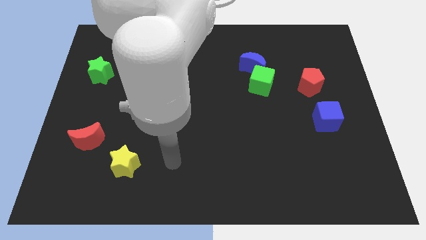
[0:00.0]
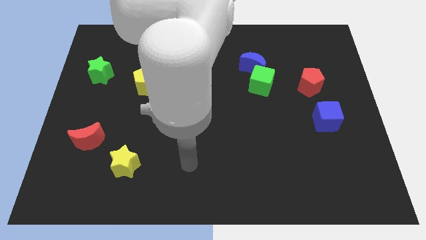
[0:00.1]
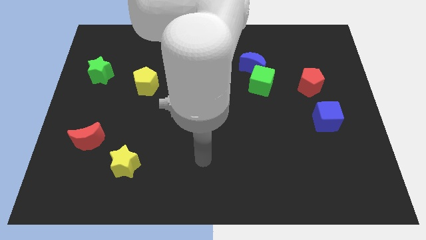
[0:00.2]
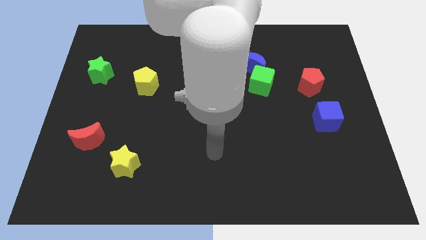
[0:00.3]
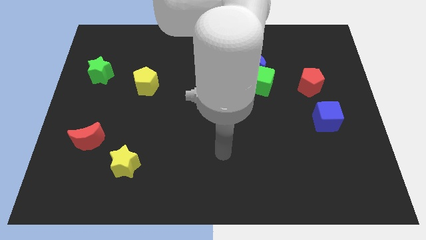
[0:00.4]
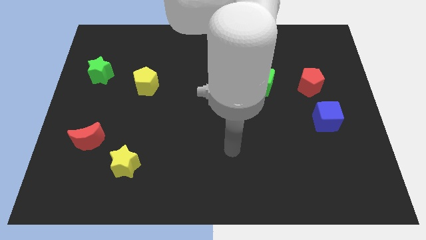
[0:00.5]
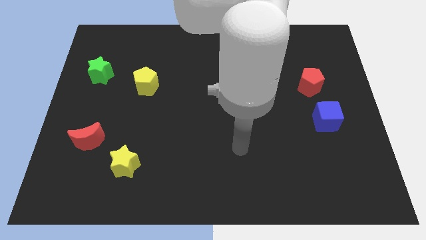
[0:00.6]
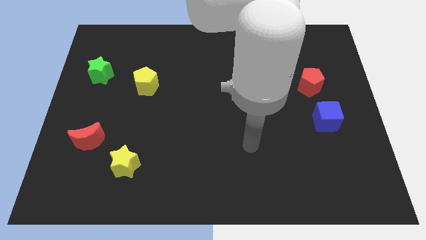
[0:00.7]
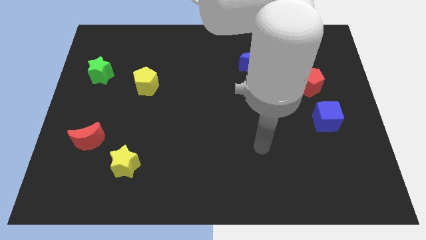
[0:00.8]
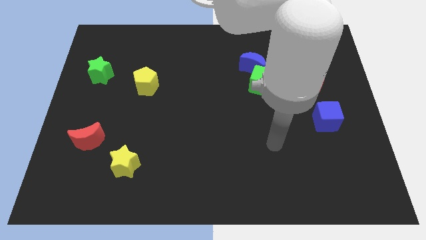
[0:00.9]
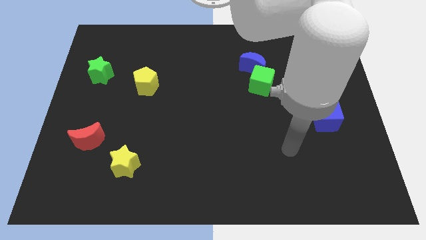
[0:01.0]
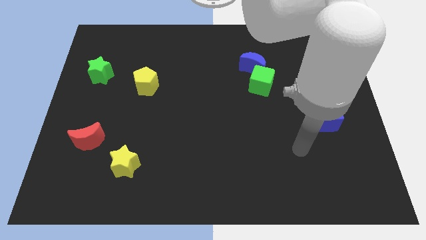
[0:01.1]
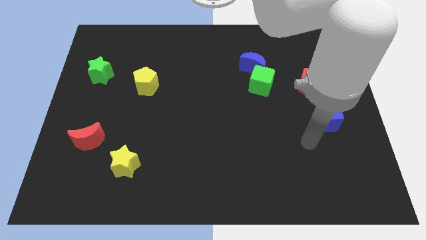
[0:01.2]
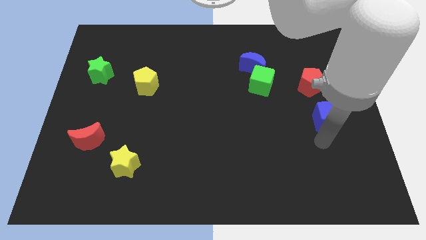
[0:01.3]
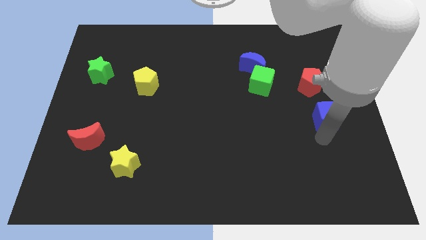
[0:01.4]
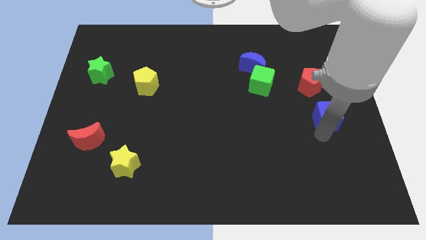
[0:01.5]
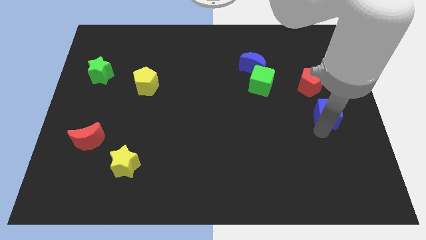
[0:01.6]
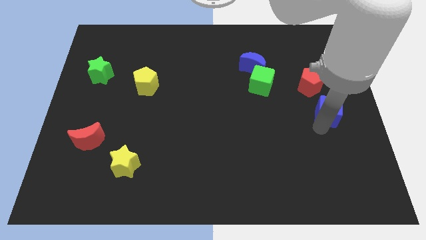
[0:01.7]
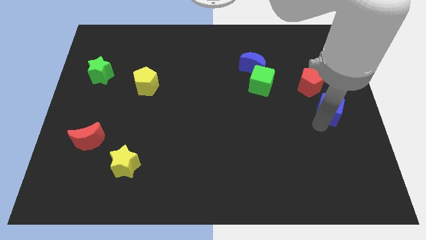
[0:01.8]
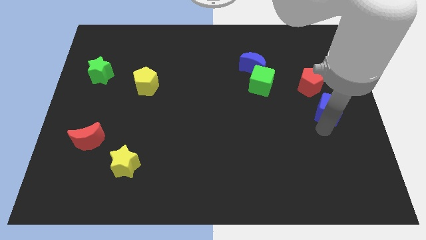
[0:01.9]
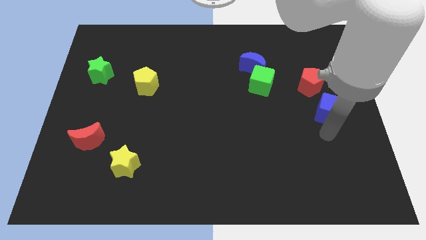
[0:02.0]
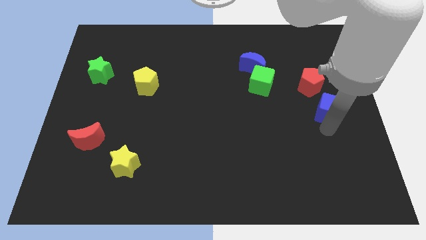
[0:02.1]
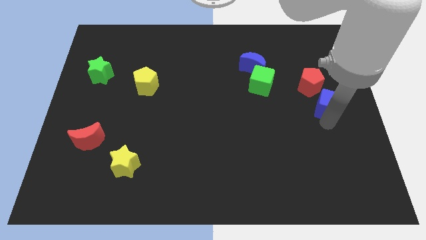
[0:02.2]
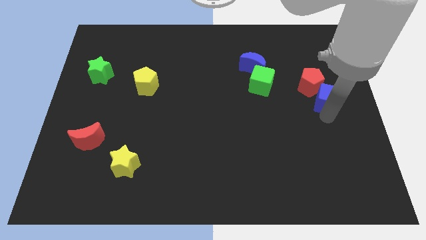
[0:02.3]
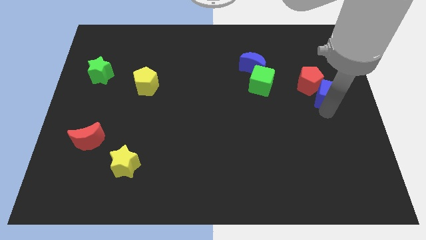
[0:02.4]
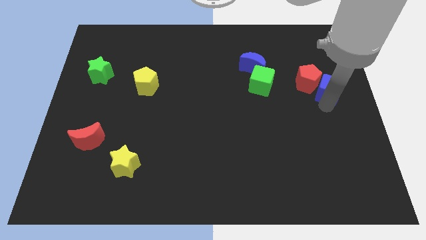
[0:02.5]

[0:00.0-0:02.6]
push the blue cube a little up

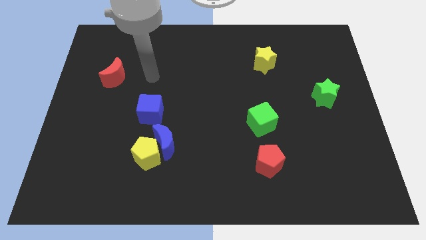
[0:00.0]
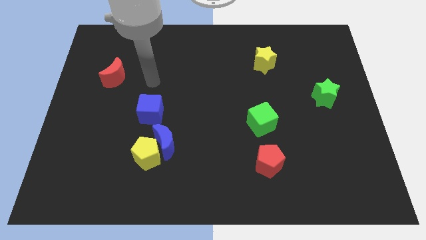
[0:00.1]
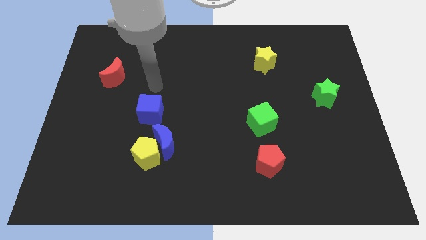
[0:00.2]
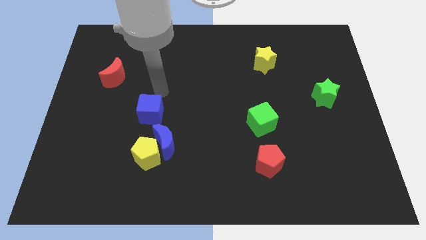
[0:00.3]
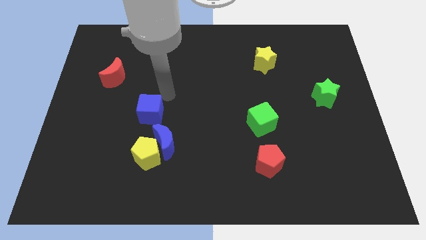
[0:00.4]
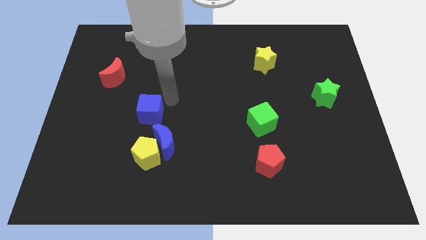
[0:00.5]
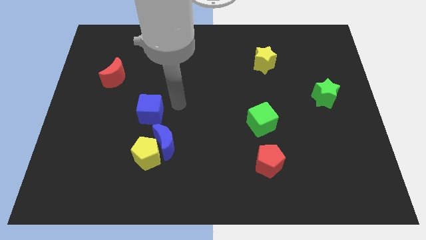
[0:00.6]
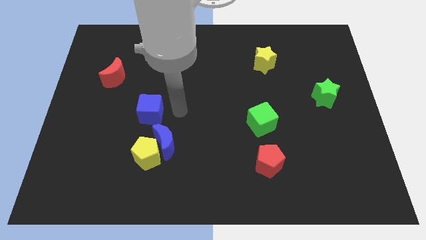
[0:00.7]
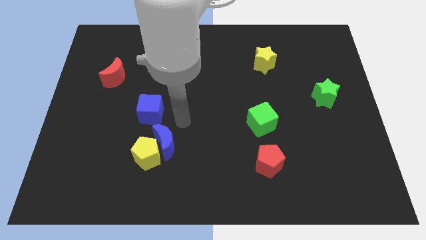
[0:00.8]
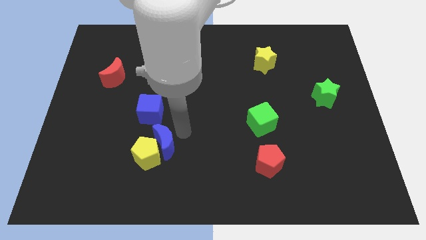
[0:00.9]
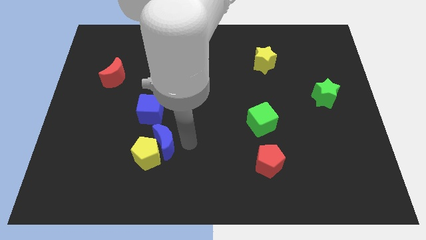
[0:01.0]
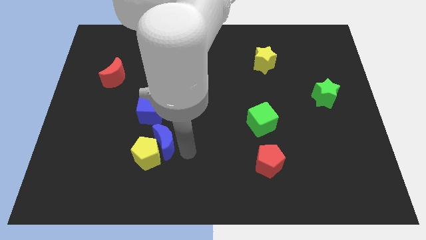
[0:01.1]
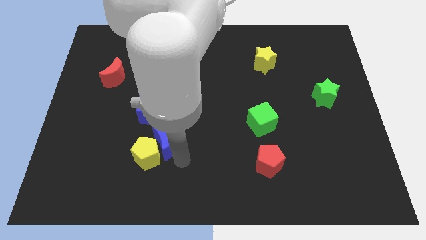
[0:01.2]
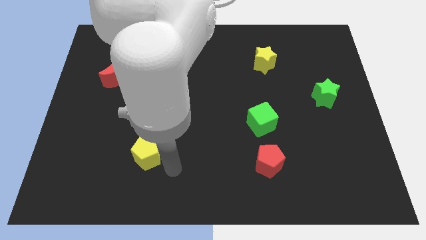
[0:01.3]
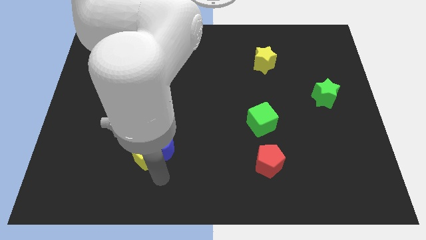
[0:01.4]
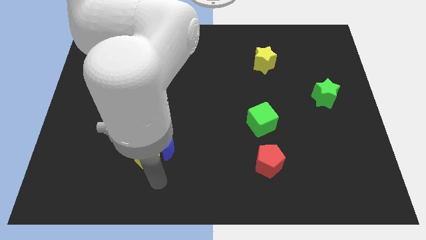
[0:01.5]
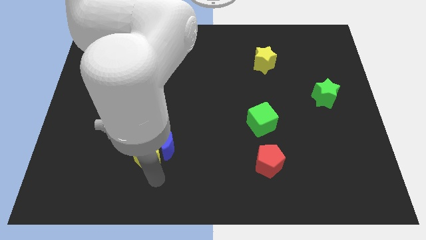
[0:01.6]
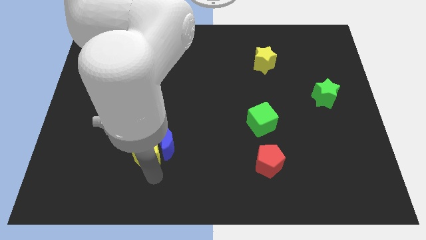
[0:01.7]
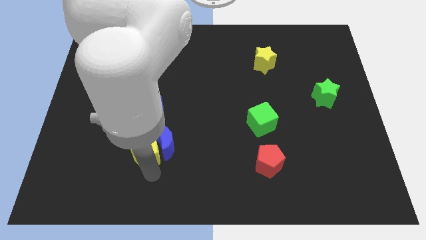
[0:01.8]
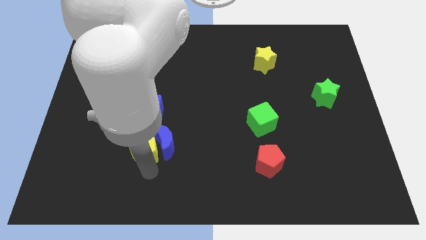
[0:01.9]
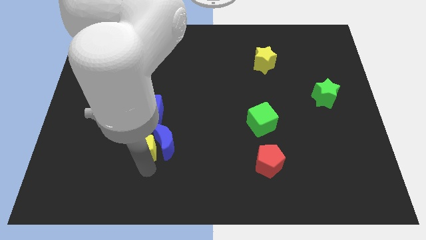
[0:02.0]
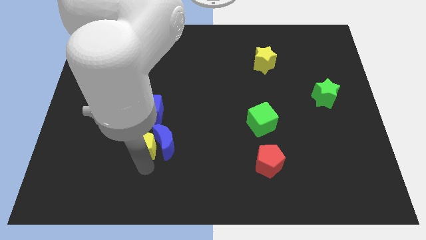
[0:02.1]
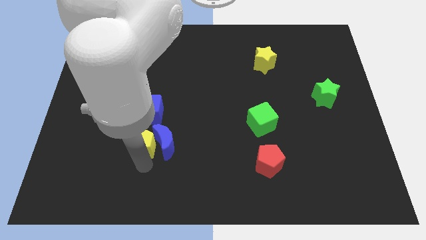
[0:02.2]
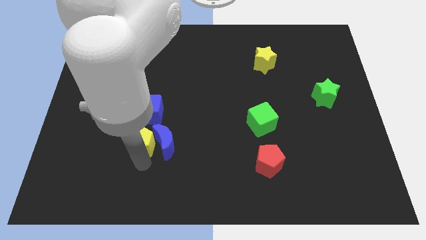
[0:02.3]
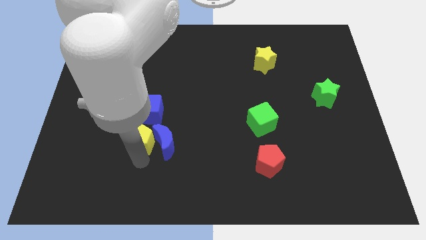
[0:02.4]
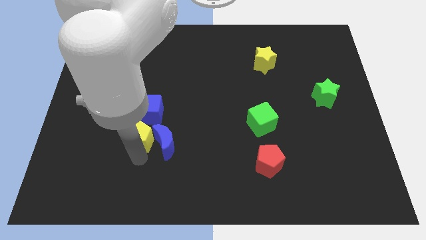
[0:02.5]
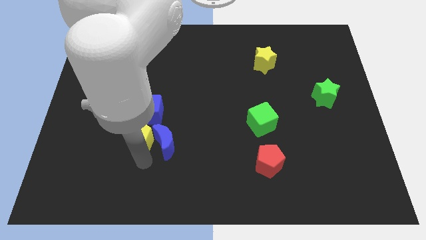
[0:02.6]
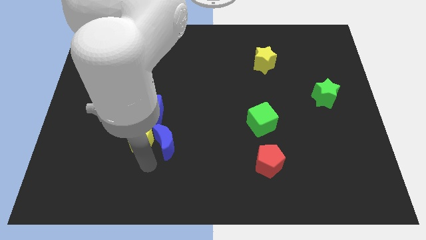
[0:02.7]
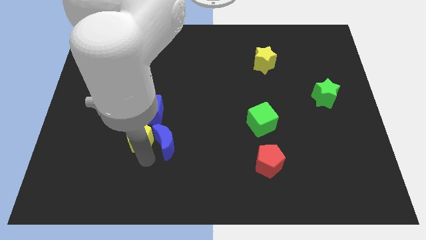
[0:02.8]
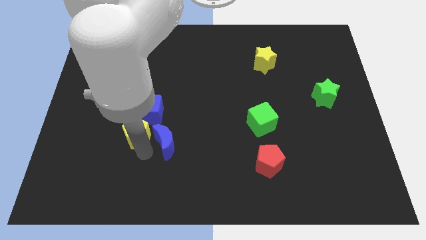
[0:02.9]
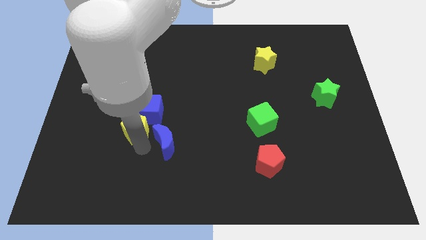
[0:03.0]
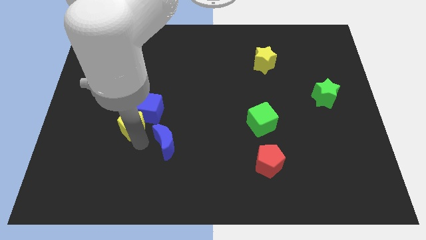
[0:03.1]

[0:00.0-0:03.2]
slightly slide the yellow pentagon upwards

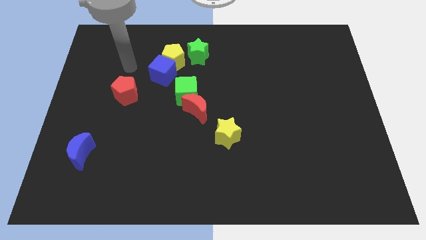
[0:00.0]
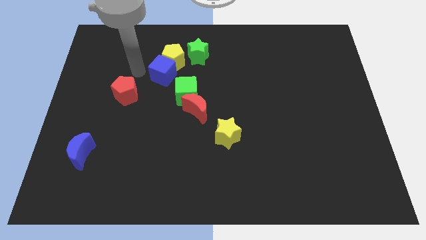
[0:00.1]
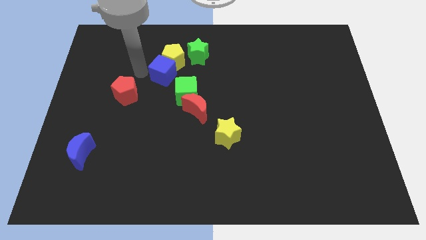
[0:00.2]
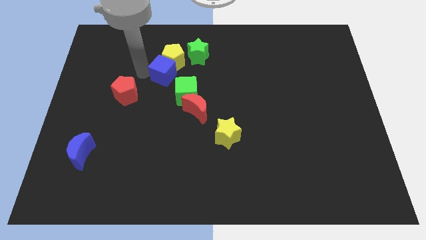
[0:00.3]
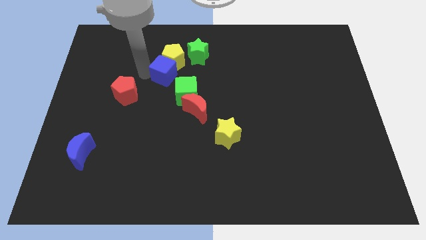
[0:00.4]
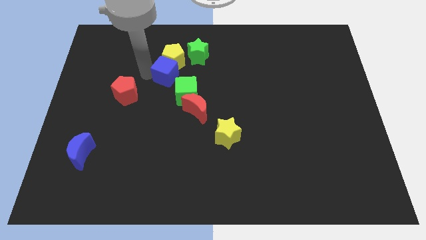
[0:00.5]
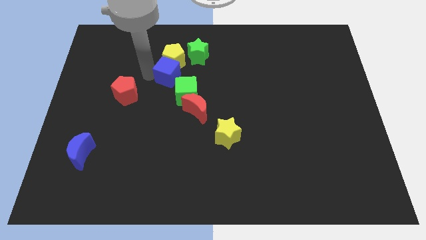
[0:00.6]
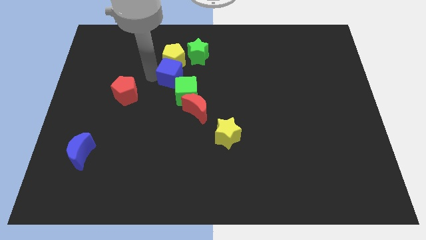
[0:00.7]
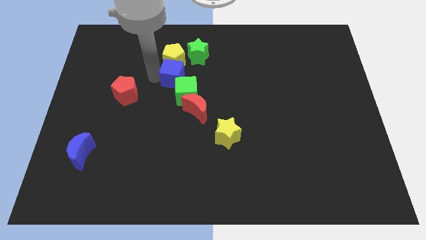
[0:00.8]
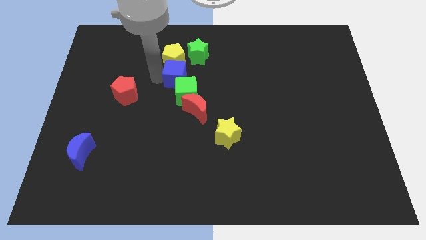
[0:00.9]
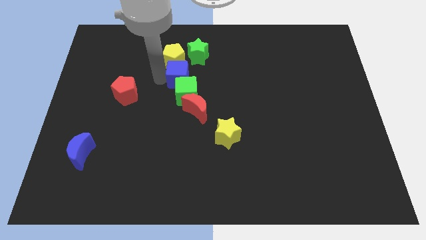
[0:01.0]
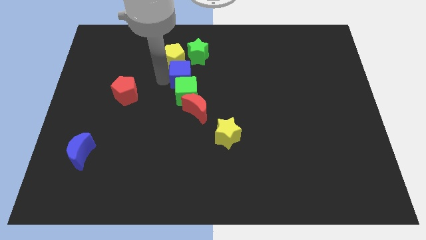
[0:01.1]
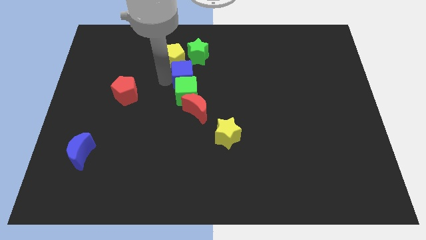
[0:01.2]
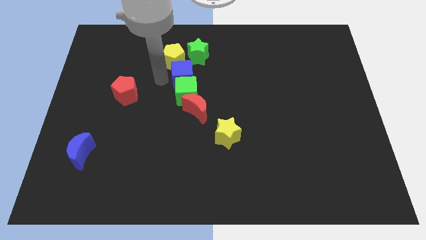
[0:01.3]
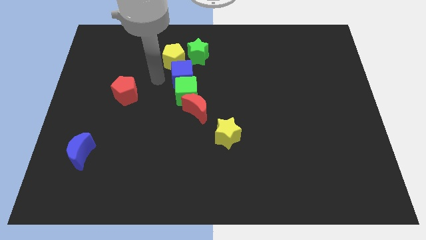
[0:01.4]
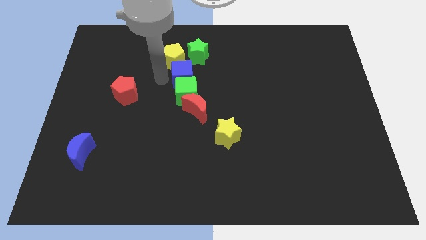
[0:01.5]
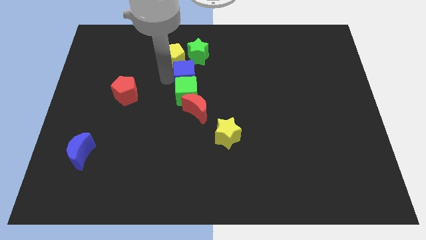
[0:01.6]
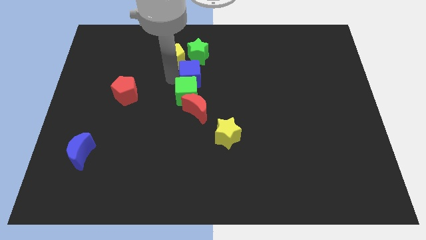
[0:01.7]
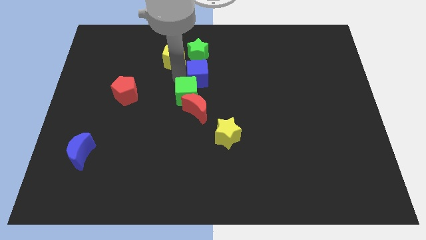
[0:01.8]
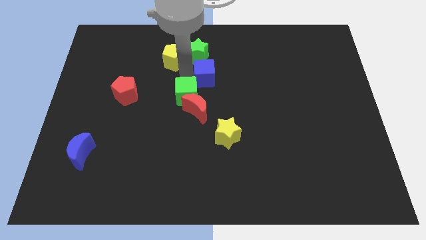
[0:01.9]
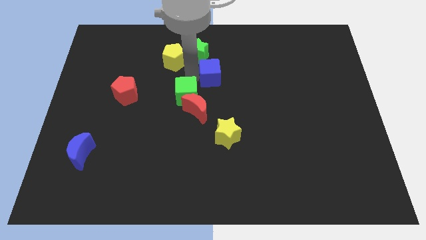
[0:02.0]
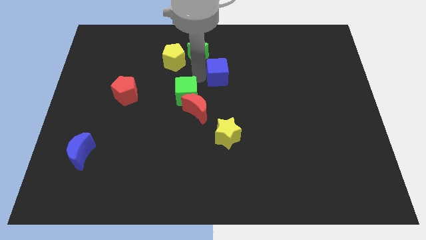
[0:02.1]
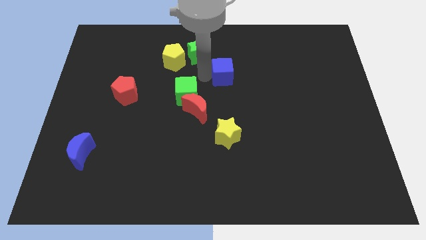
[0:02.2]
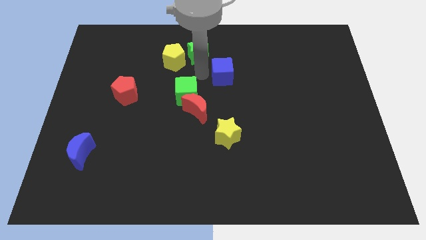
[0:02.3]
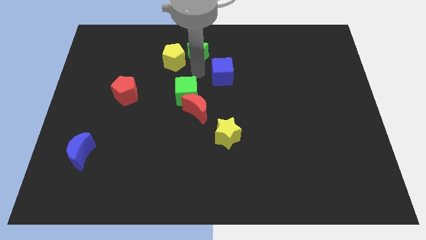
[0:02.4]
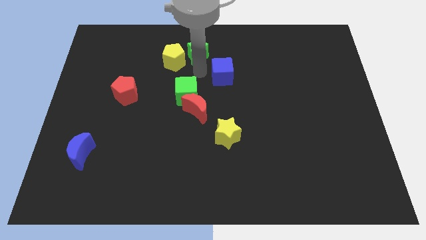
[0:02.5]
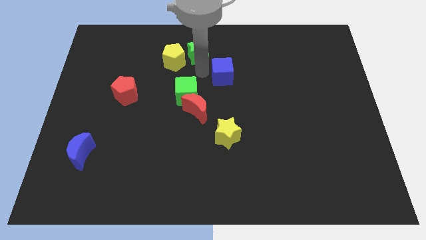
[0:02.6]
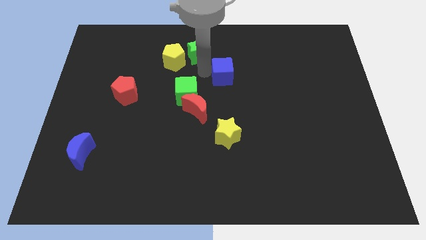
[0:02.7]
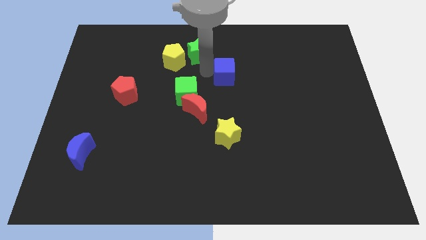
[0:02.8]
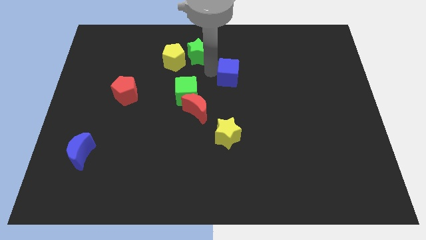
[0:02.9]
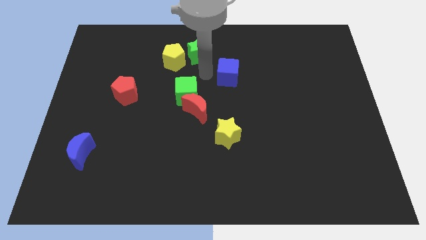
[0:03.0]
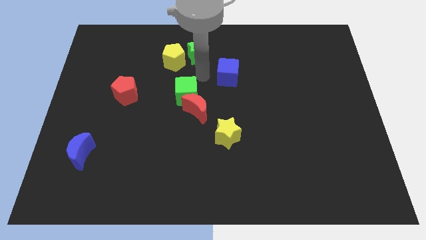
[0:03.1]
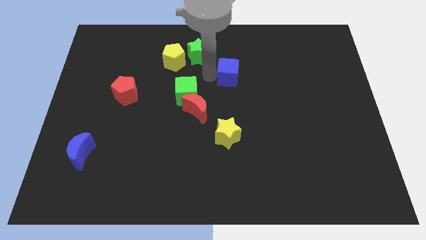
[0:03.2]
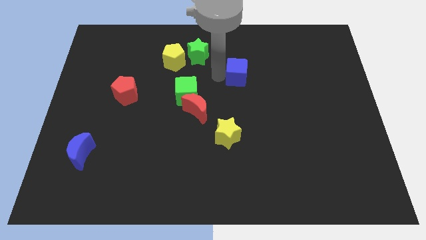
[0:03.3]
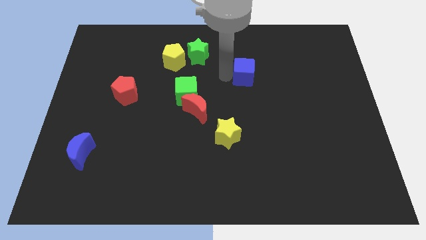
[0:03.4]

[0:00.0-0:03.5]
slide the blue cube right
